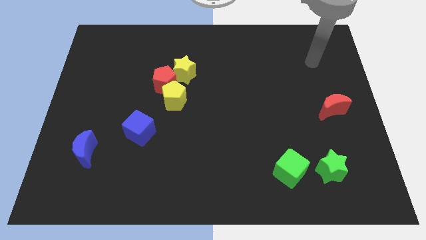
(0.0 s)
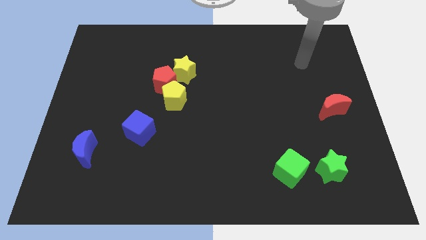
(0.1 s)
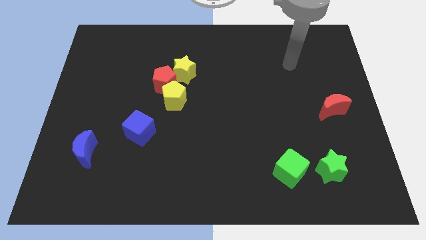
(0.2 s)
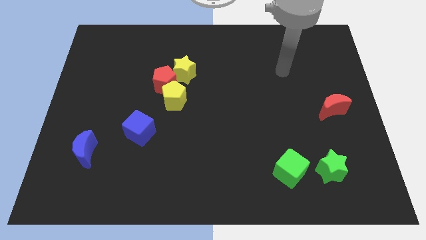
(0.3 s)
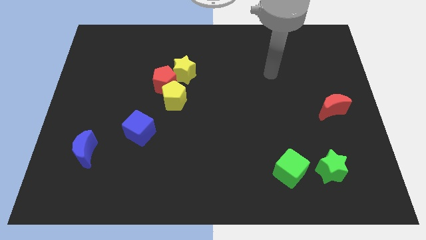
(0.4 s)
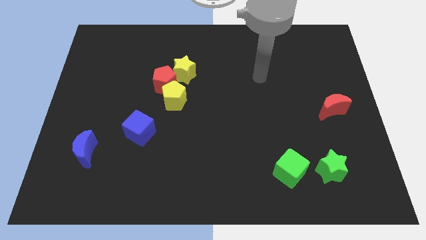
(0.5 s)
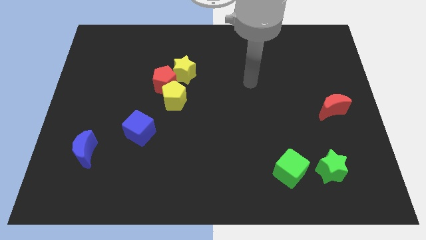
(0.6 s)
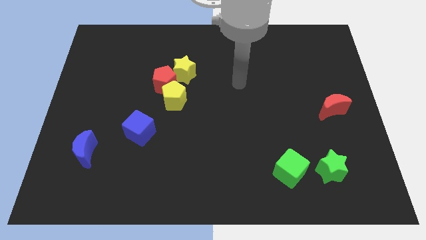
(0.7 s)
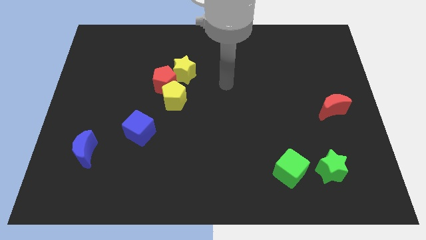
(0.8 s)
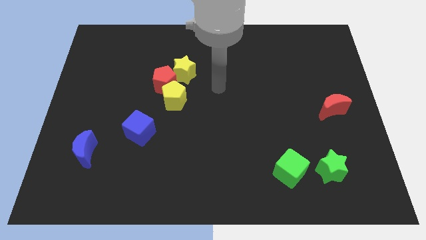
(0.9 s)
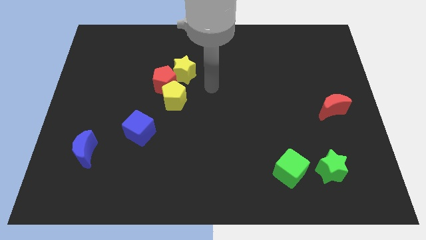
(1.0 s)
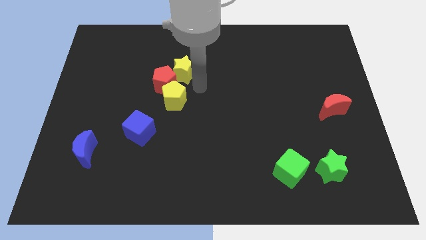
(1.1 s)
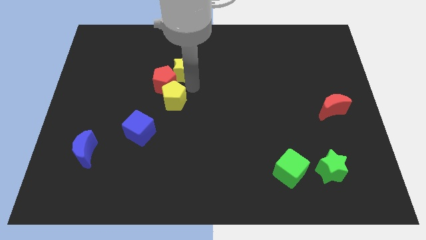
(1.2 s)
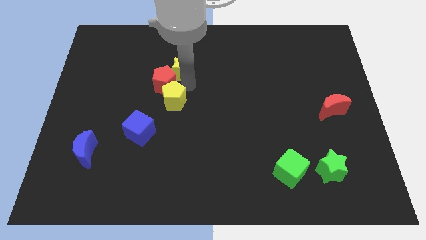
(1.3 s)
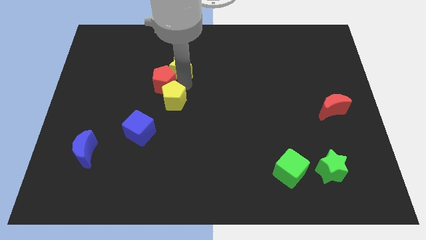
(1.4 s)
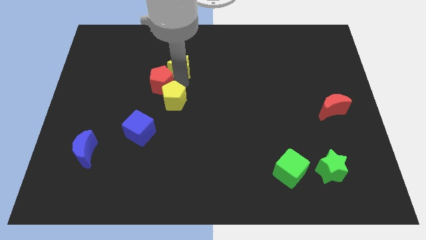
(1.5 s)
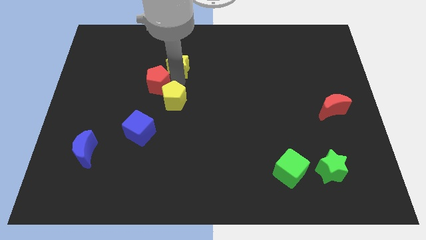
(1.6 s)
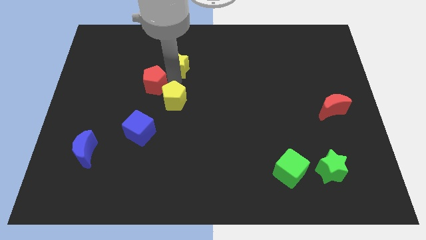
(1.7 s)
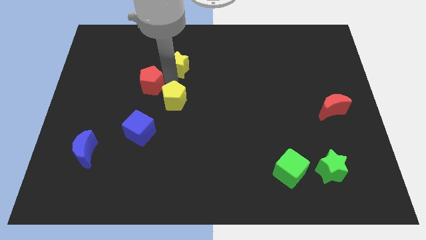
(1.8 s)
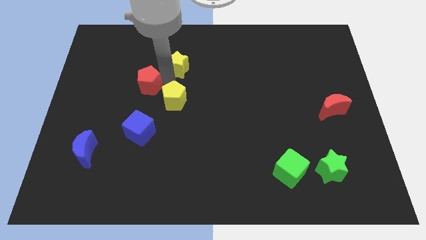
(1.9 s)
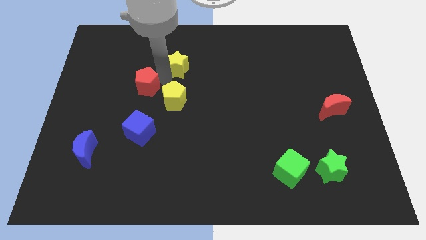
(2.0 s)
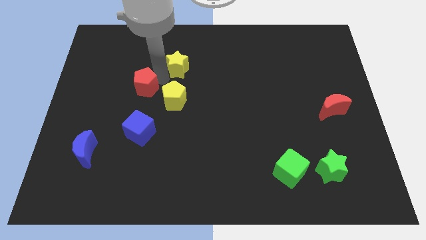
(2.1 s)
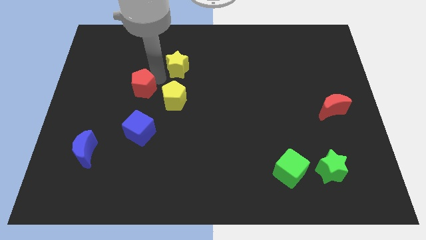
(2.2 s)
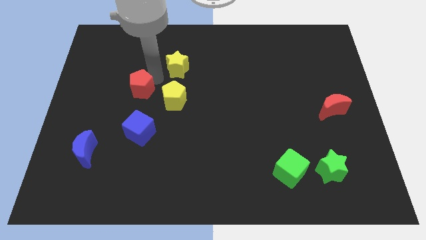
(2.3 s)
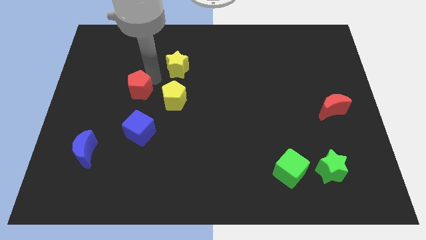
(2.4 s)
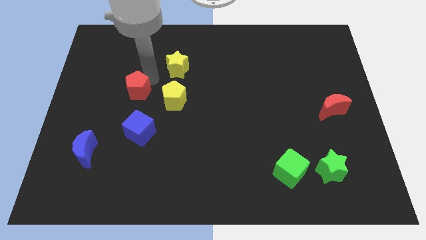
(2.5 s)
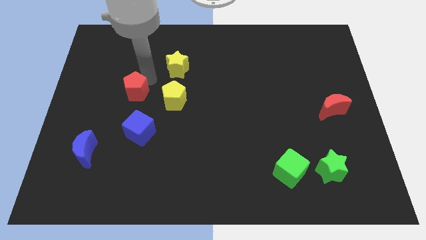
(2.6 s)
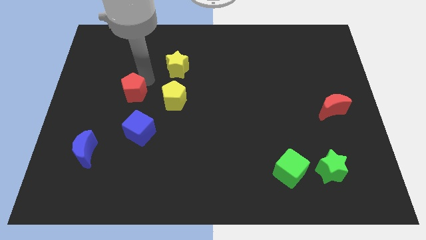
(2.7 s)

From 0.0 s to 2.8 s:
separate the red pentagon from the yellow pentagon and yellow star

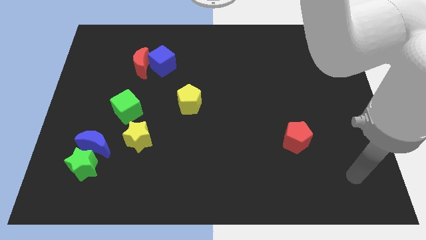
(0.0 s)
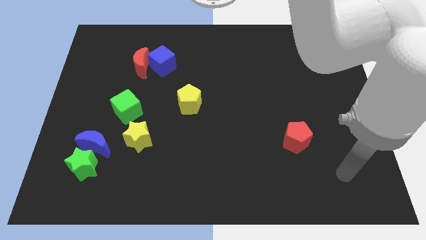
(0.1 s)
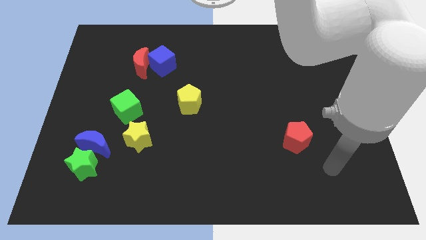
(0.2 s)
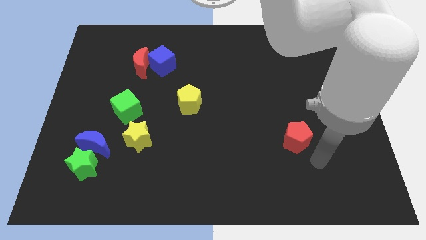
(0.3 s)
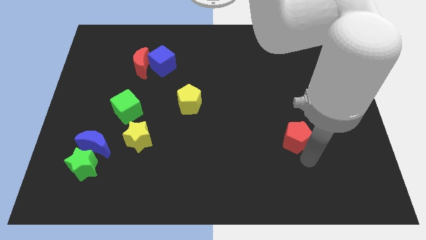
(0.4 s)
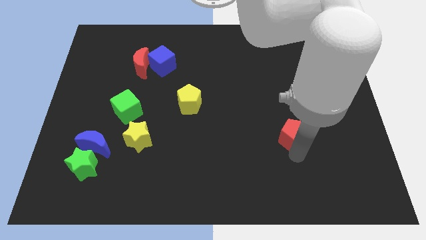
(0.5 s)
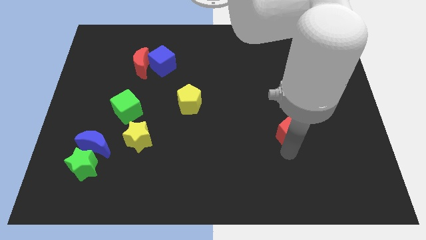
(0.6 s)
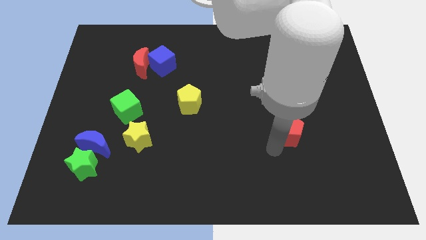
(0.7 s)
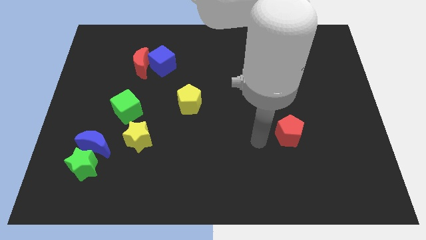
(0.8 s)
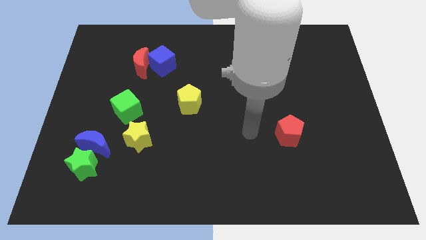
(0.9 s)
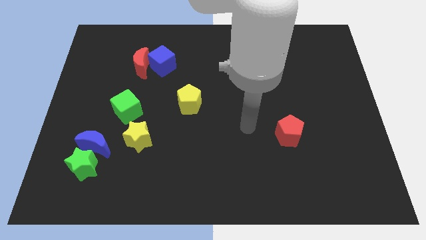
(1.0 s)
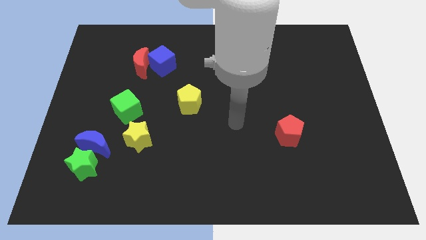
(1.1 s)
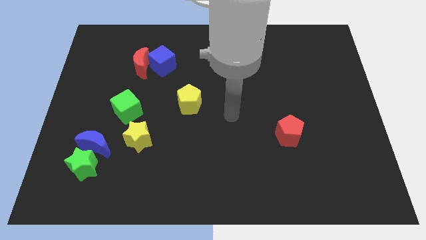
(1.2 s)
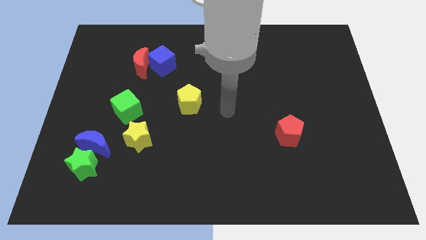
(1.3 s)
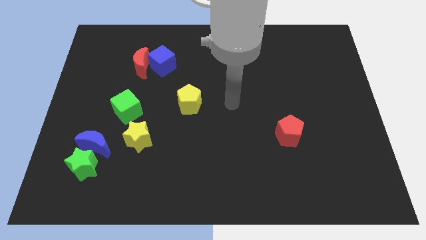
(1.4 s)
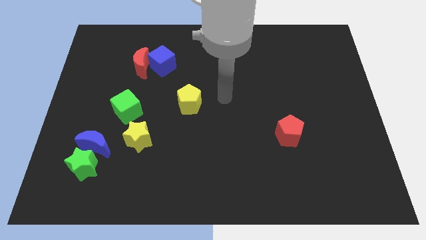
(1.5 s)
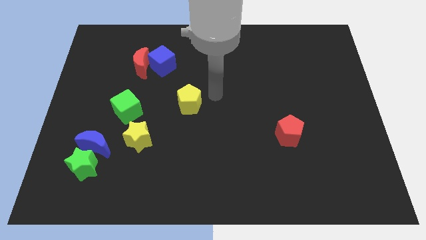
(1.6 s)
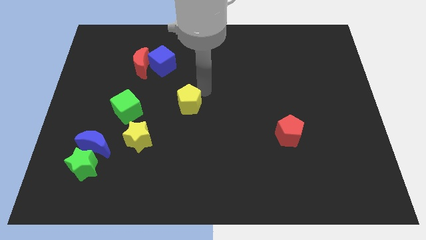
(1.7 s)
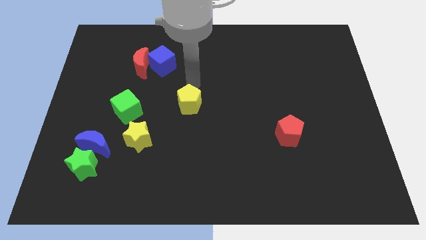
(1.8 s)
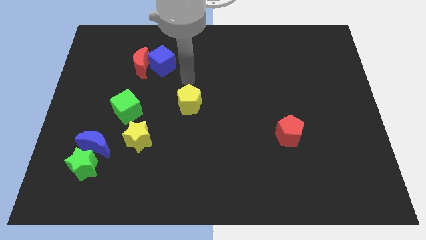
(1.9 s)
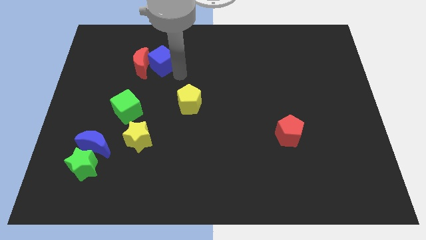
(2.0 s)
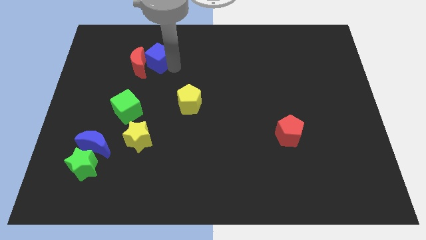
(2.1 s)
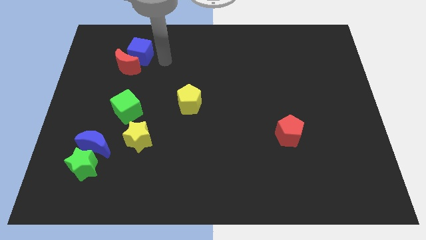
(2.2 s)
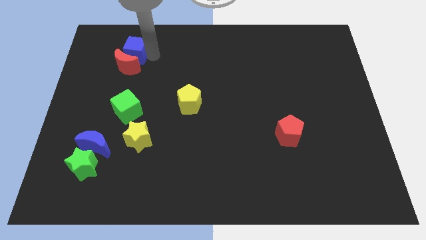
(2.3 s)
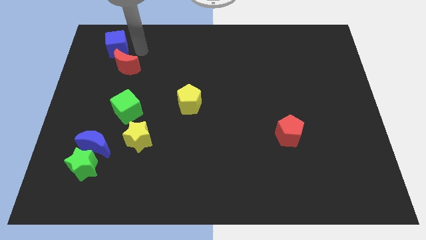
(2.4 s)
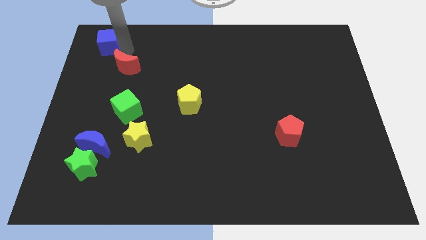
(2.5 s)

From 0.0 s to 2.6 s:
move the red moon away from the blue cube

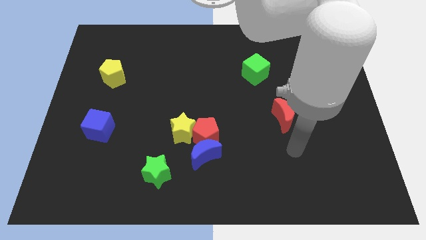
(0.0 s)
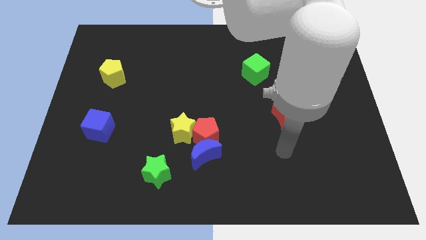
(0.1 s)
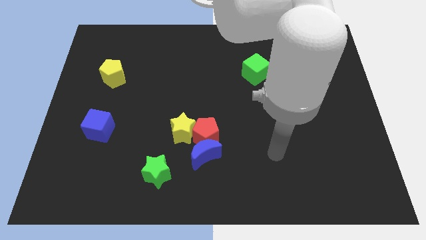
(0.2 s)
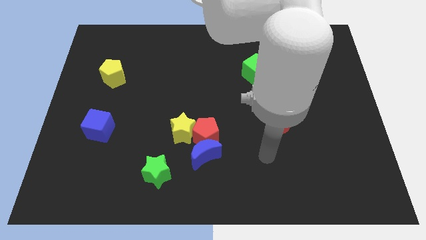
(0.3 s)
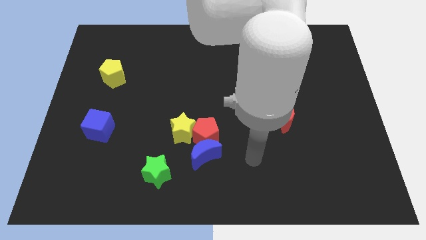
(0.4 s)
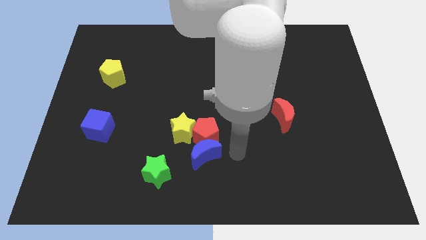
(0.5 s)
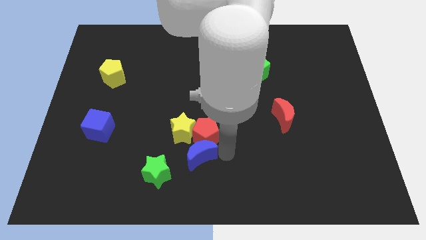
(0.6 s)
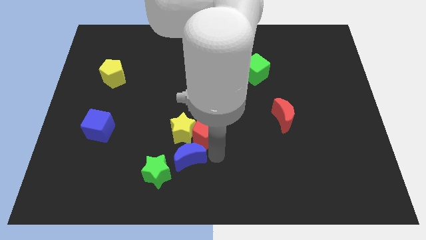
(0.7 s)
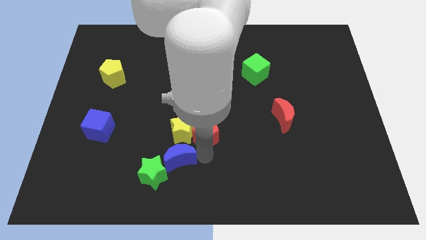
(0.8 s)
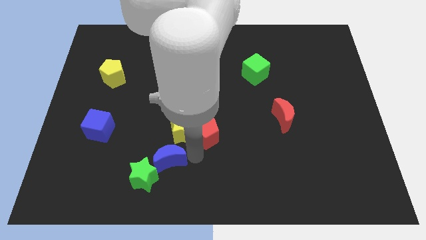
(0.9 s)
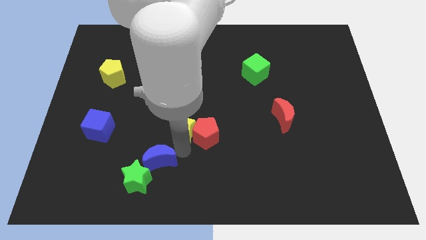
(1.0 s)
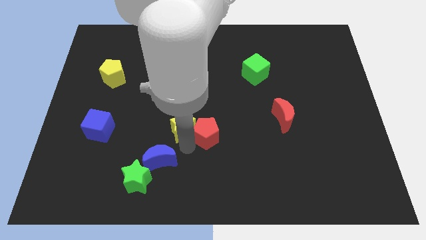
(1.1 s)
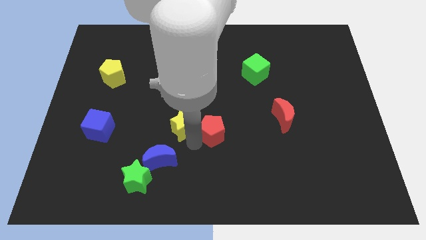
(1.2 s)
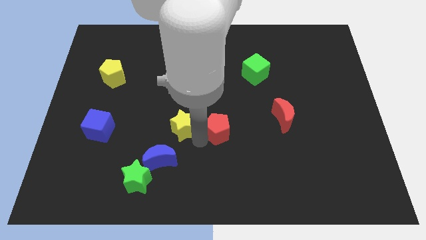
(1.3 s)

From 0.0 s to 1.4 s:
move the red pentagon away from the blue moon and yellow star

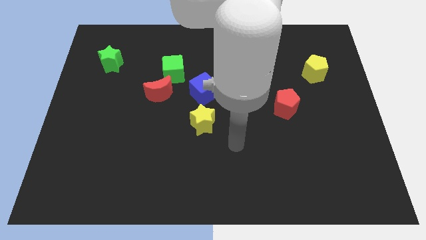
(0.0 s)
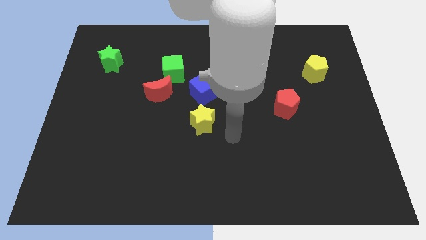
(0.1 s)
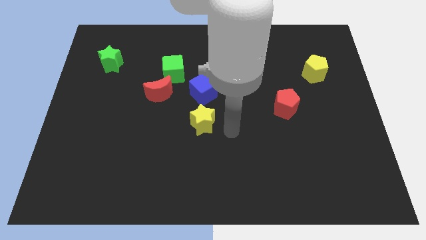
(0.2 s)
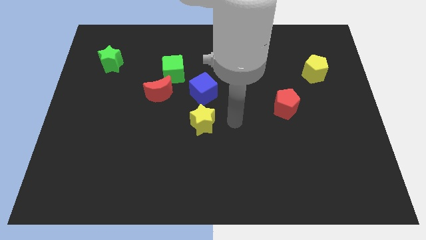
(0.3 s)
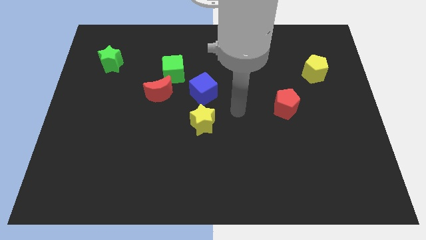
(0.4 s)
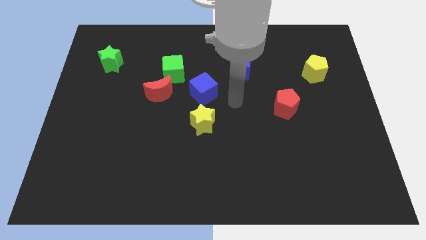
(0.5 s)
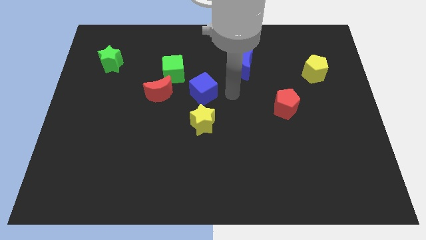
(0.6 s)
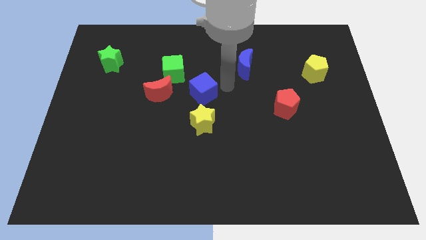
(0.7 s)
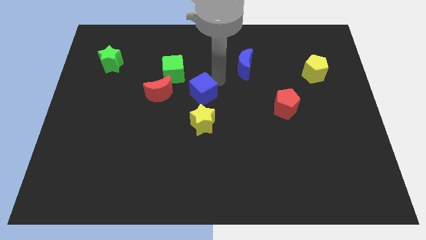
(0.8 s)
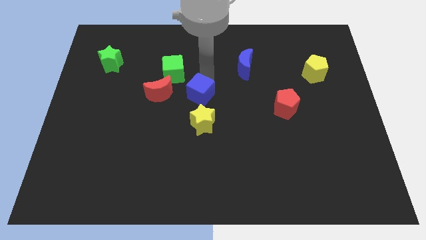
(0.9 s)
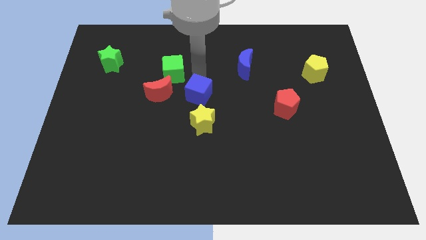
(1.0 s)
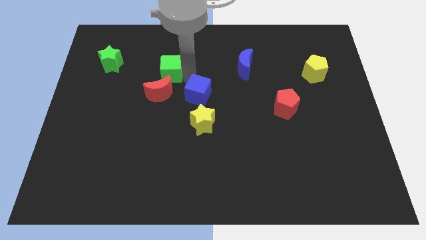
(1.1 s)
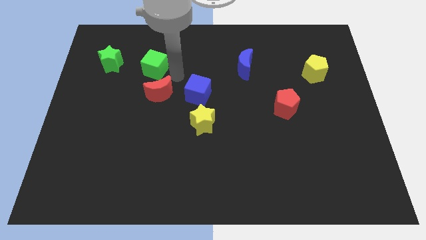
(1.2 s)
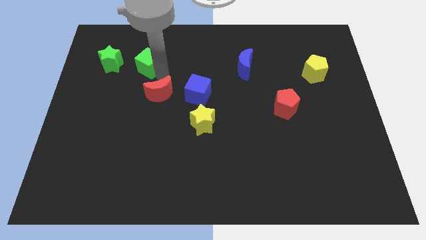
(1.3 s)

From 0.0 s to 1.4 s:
move the red moon away from the green cube

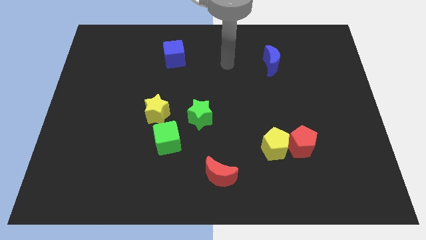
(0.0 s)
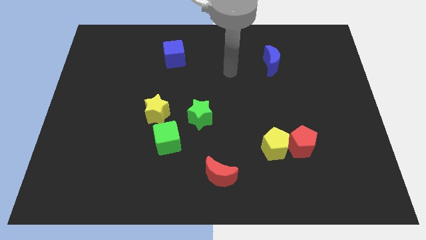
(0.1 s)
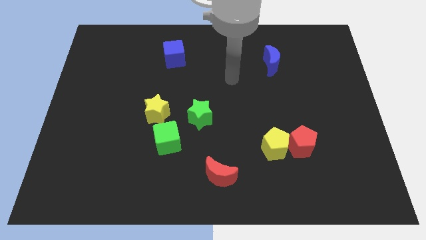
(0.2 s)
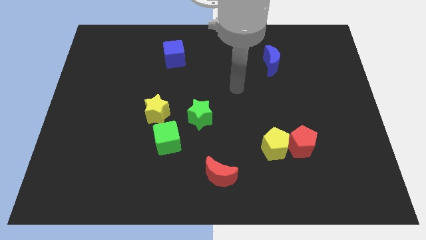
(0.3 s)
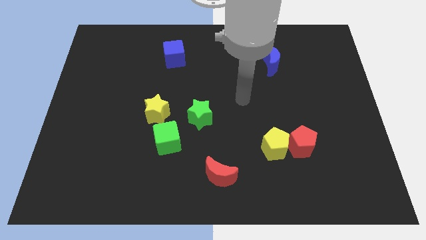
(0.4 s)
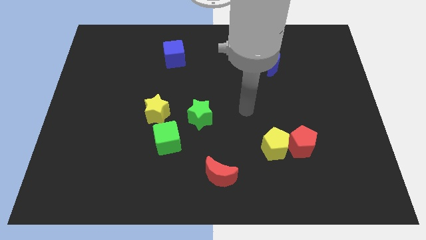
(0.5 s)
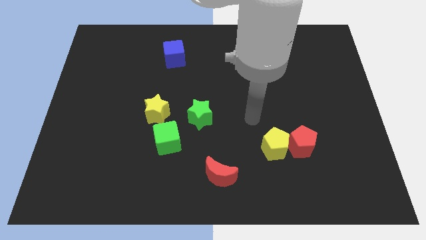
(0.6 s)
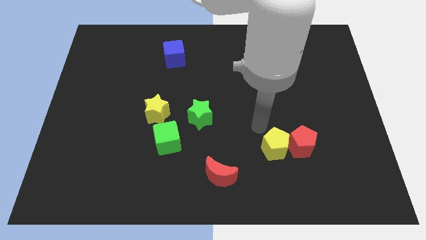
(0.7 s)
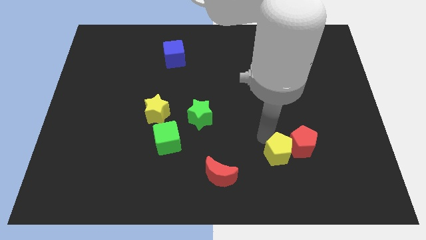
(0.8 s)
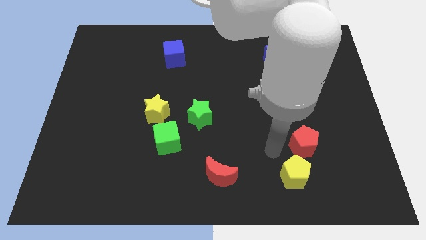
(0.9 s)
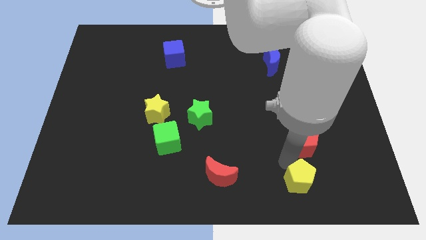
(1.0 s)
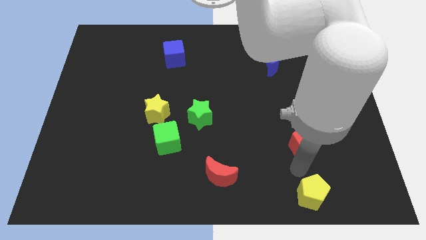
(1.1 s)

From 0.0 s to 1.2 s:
separate the red pentagon from the yellow pentagon
